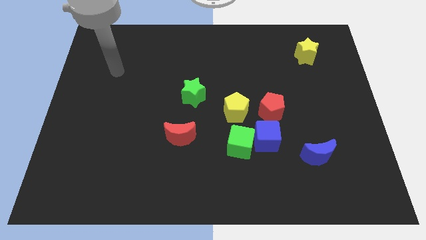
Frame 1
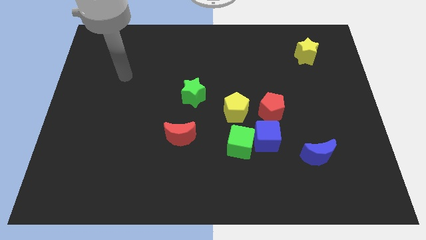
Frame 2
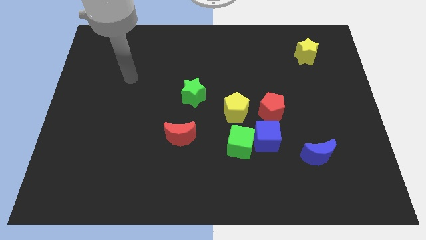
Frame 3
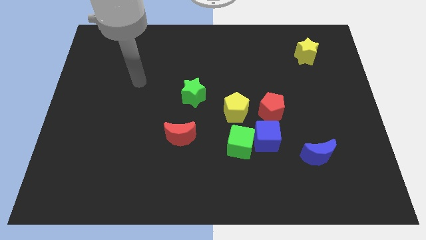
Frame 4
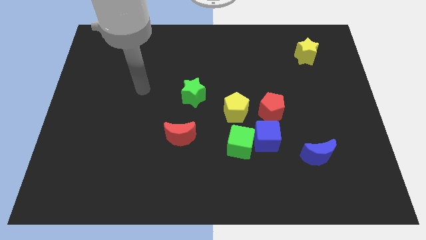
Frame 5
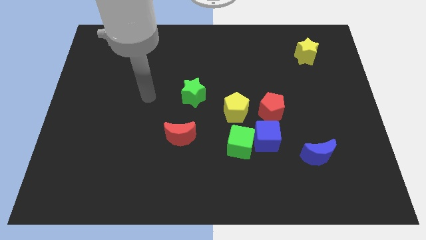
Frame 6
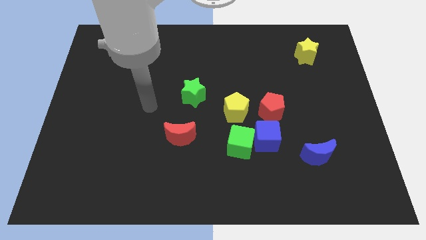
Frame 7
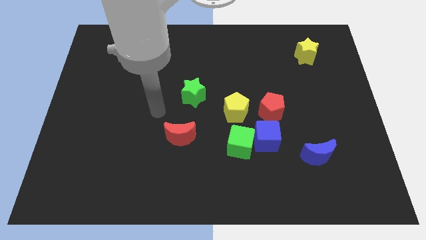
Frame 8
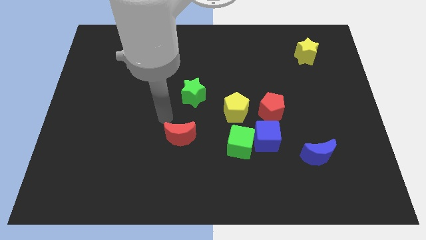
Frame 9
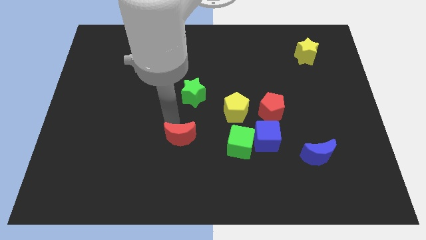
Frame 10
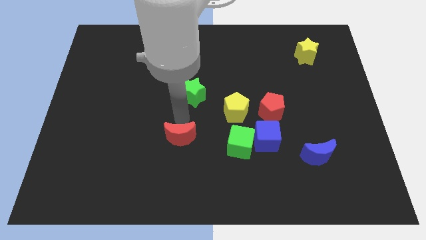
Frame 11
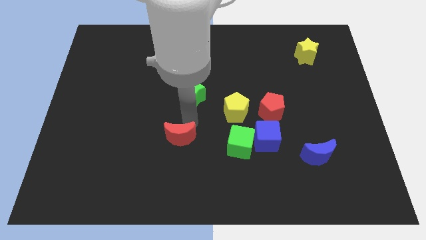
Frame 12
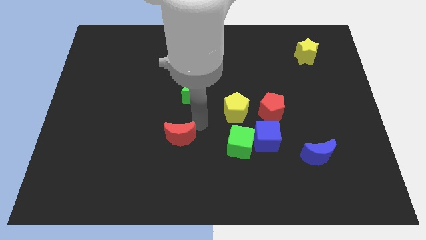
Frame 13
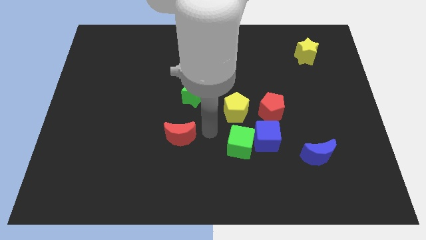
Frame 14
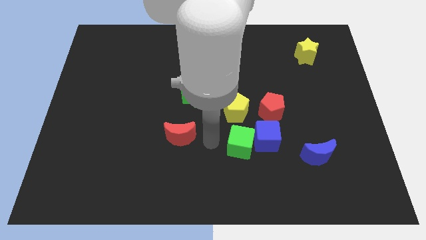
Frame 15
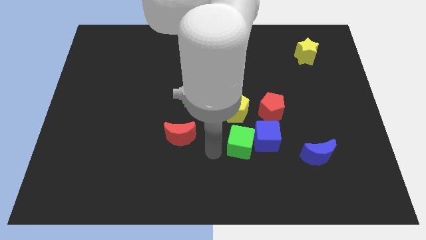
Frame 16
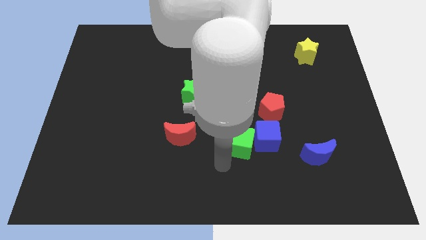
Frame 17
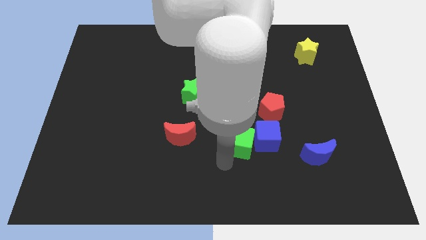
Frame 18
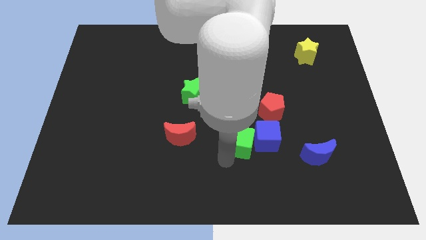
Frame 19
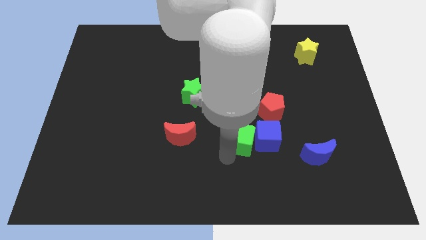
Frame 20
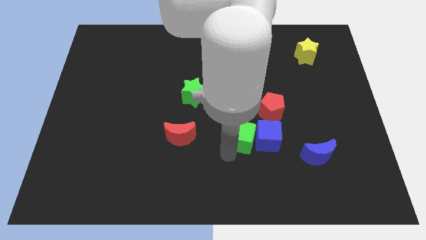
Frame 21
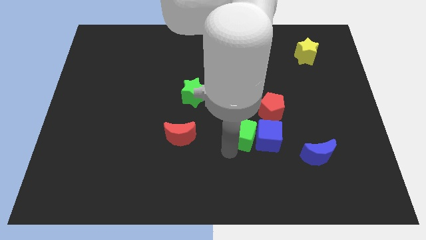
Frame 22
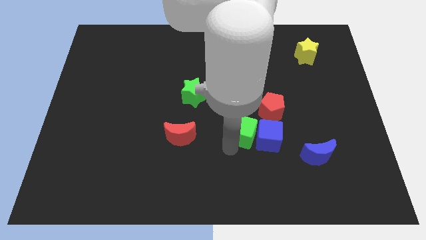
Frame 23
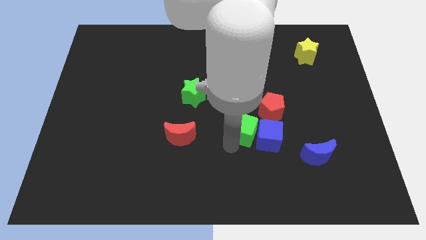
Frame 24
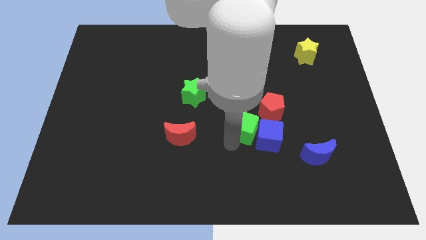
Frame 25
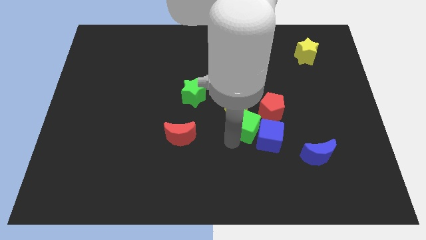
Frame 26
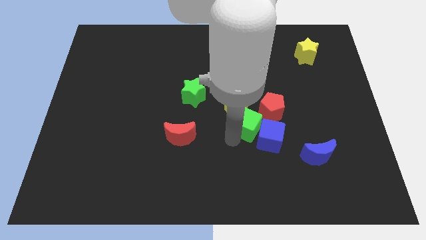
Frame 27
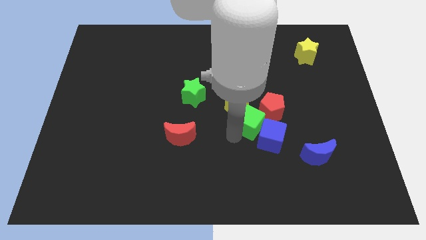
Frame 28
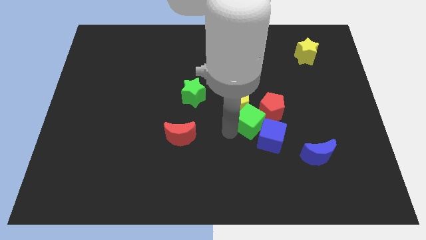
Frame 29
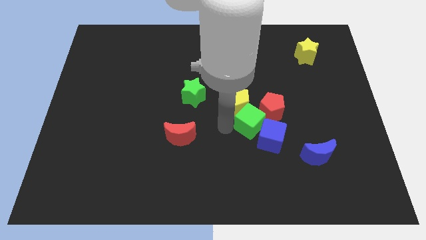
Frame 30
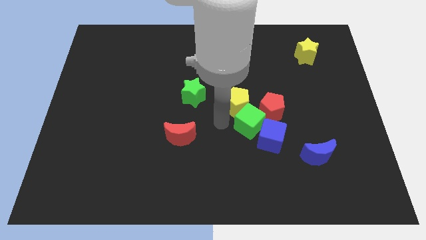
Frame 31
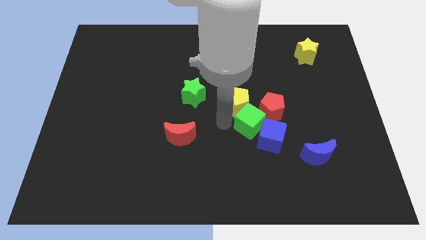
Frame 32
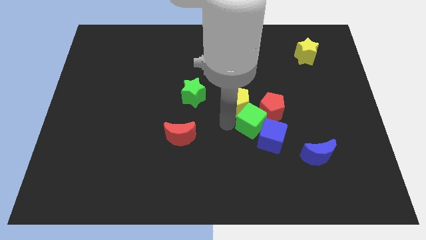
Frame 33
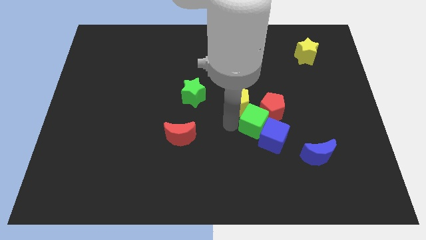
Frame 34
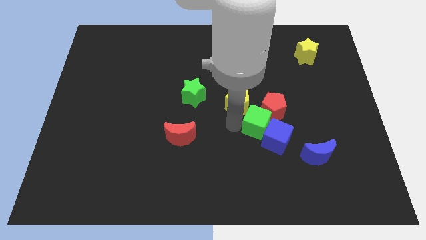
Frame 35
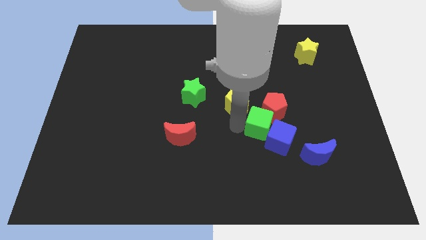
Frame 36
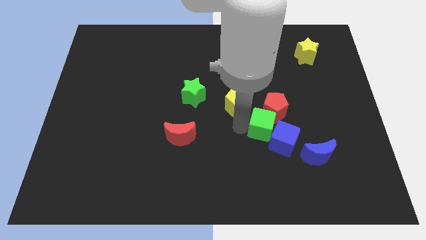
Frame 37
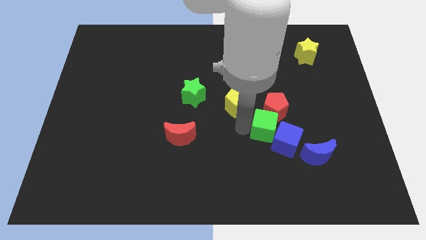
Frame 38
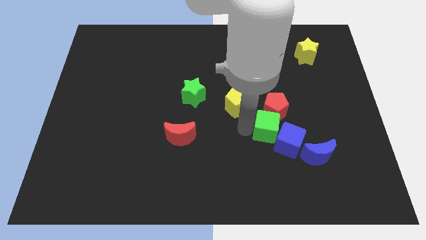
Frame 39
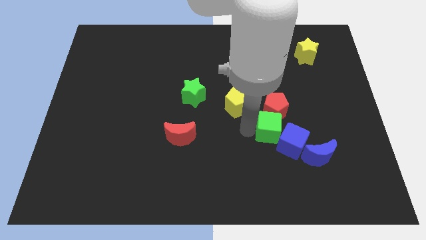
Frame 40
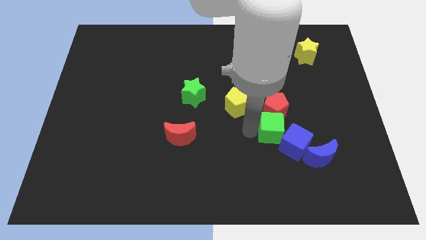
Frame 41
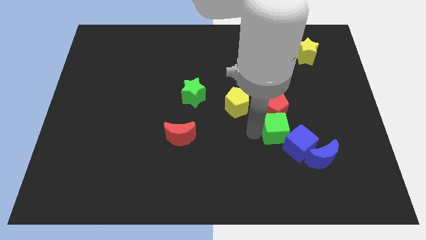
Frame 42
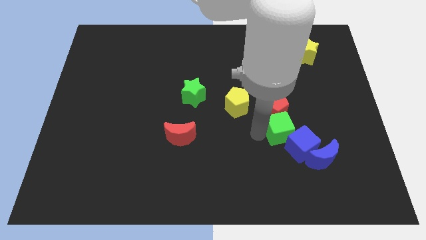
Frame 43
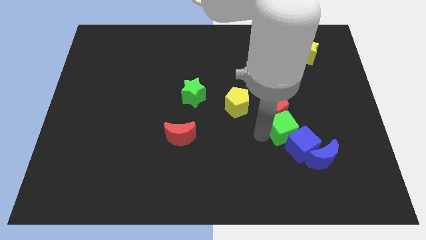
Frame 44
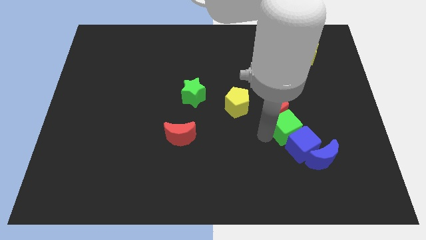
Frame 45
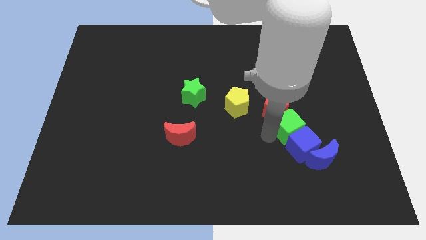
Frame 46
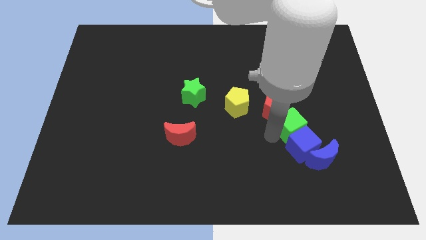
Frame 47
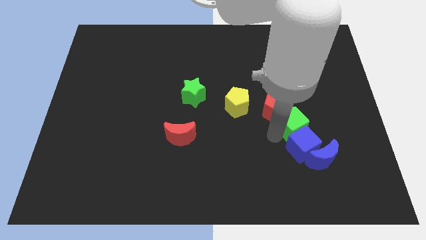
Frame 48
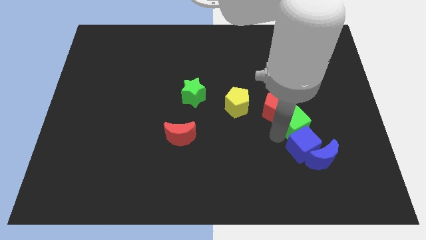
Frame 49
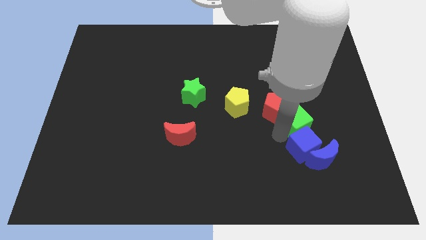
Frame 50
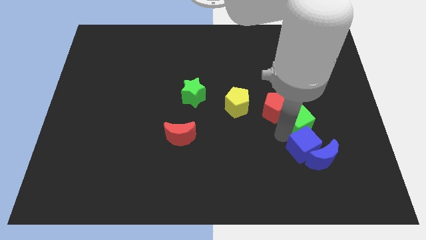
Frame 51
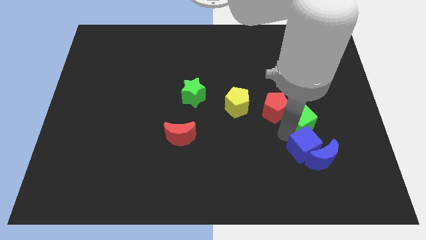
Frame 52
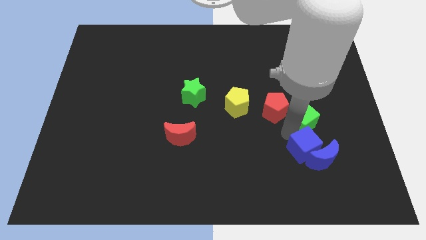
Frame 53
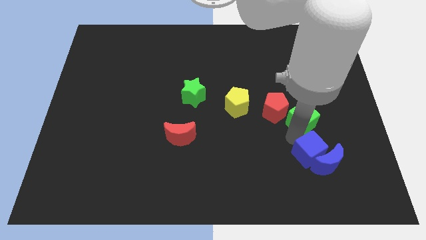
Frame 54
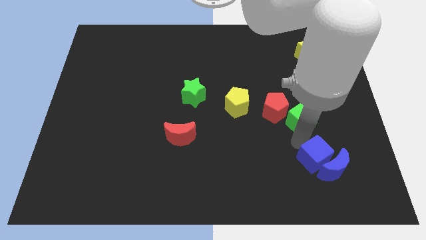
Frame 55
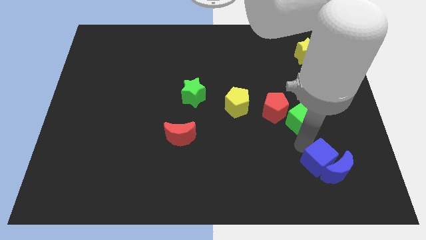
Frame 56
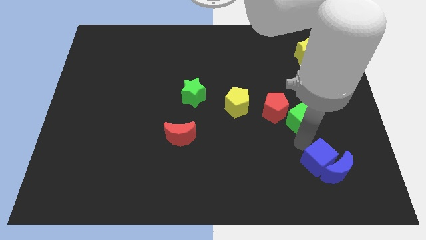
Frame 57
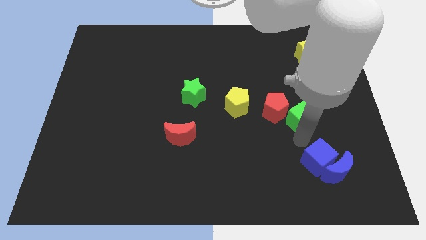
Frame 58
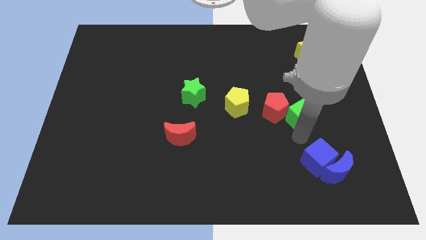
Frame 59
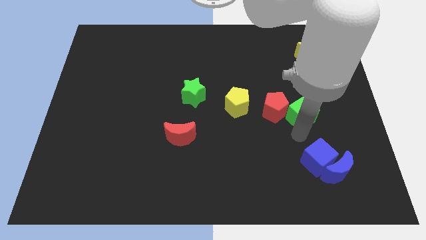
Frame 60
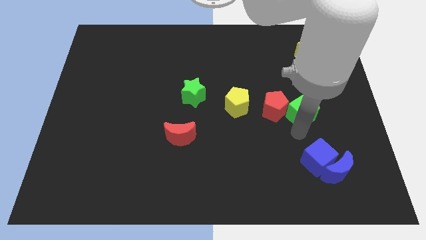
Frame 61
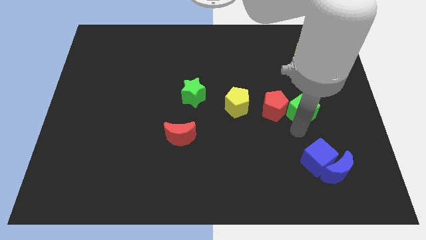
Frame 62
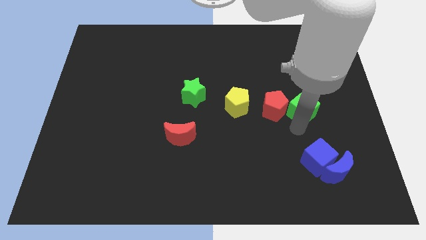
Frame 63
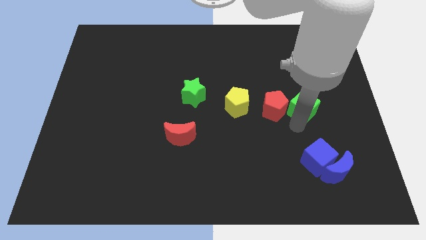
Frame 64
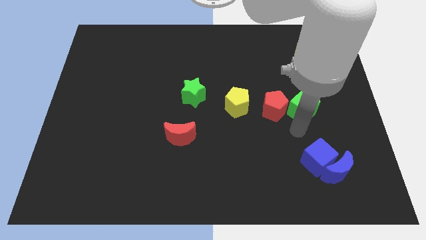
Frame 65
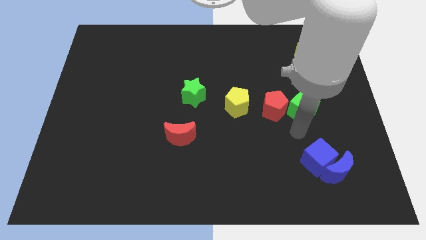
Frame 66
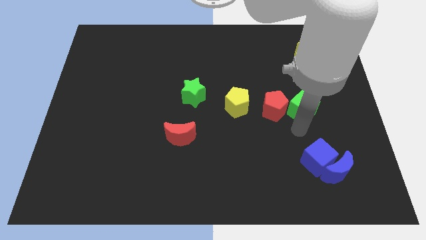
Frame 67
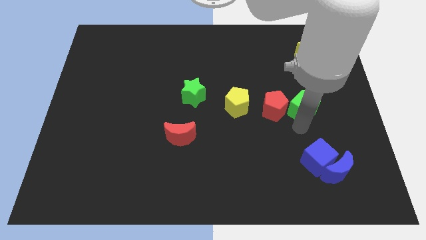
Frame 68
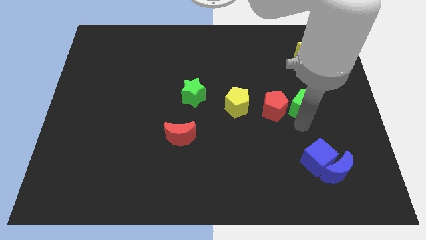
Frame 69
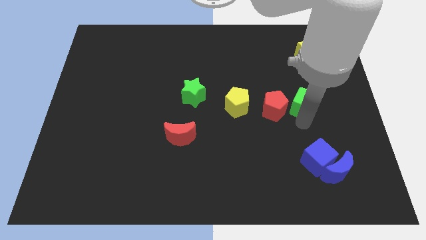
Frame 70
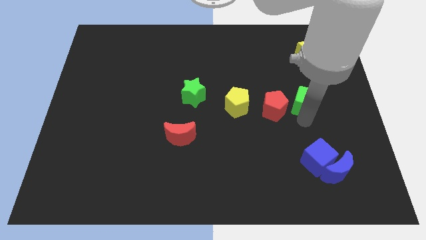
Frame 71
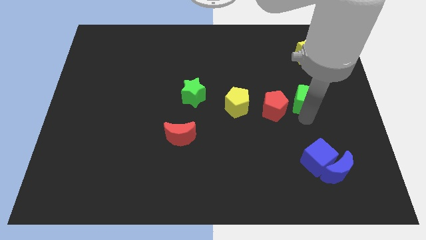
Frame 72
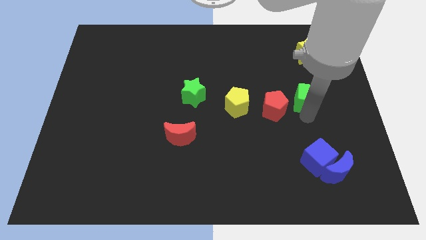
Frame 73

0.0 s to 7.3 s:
slide the green cube upwards and right diagonally

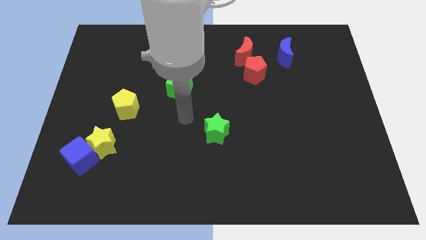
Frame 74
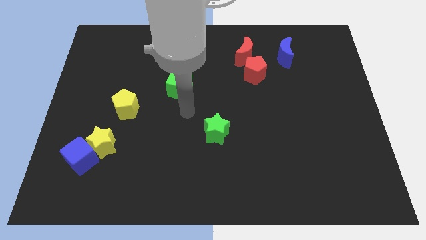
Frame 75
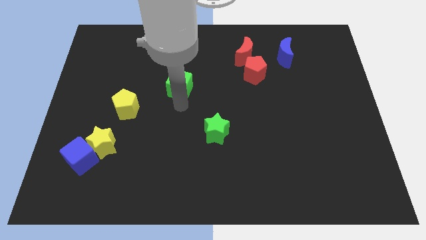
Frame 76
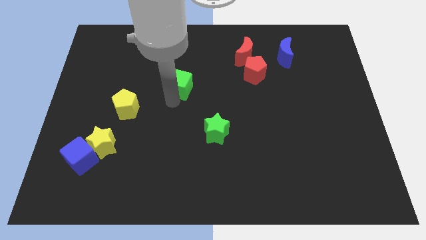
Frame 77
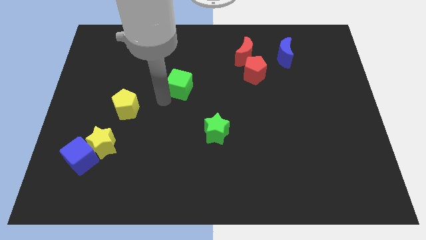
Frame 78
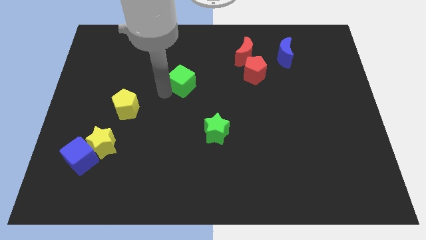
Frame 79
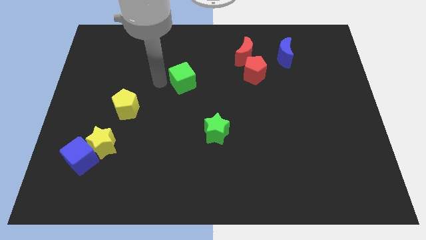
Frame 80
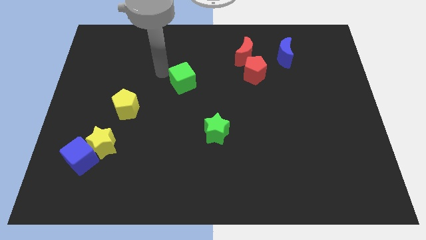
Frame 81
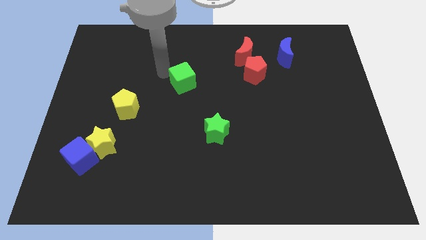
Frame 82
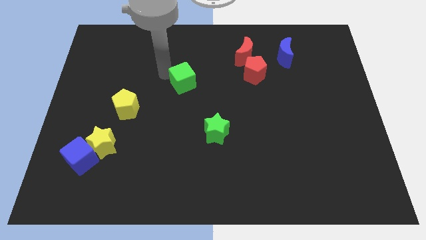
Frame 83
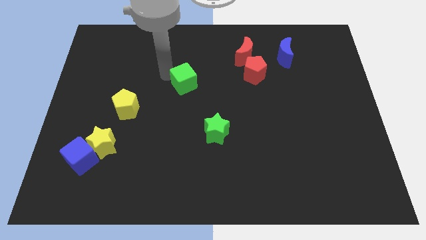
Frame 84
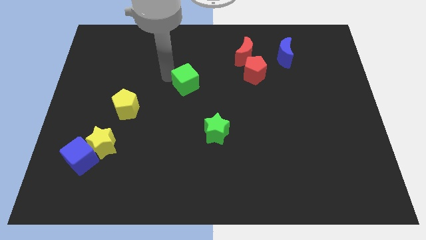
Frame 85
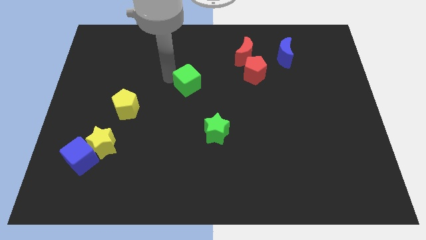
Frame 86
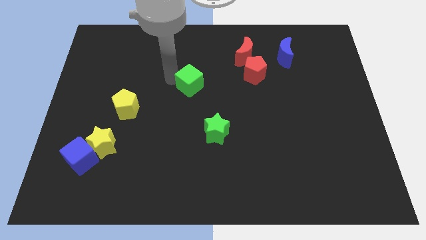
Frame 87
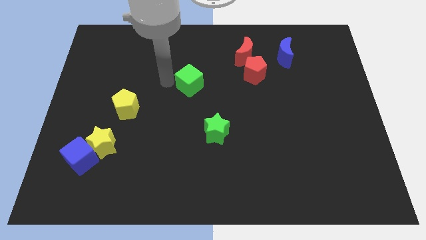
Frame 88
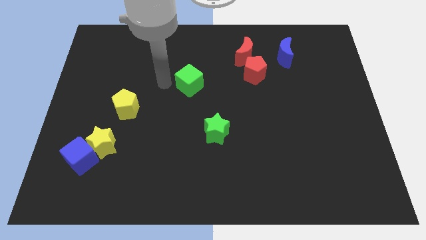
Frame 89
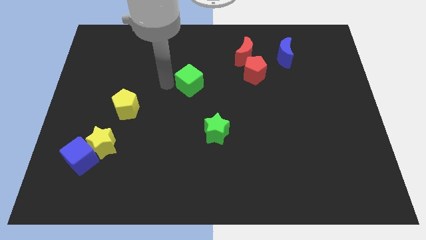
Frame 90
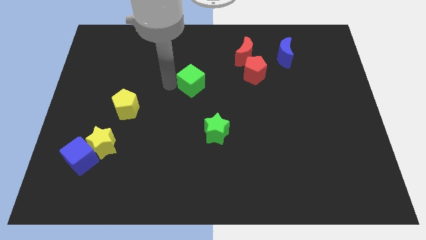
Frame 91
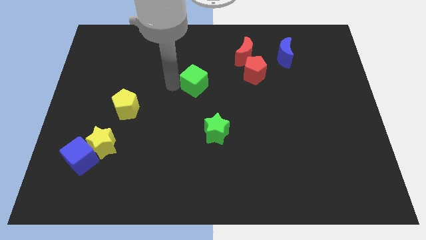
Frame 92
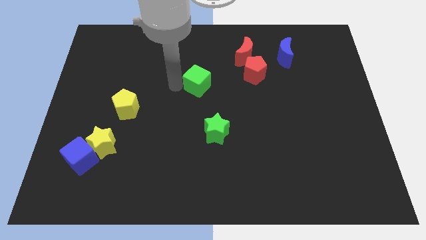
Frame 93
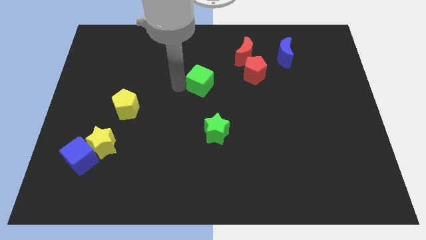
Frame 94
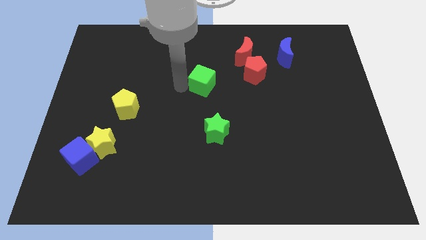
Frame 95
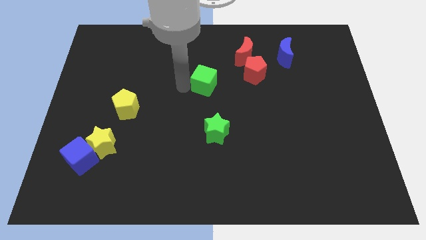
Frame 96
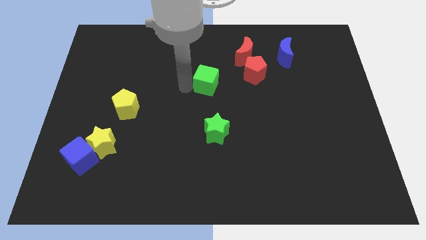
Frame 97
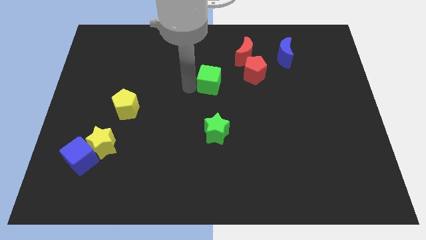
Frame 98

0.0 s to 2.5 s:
slightly slide the green cube right
